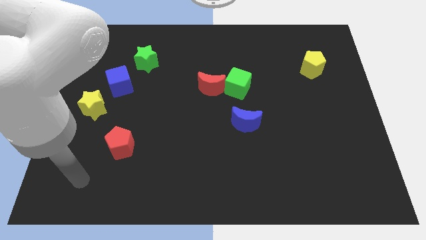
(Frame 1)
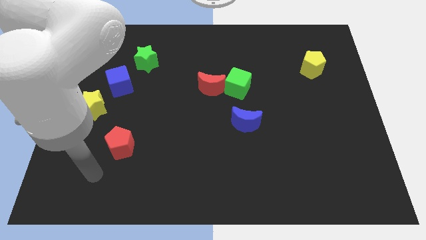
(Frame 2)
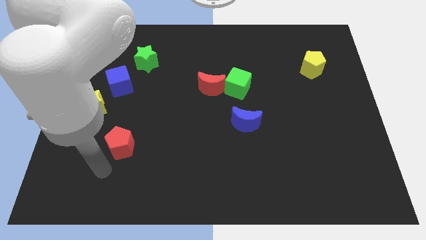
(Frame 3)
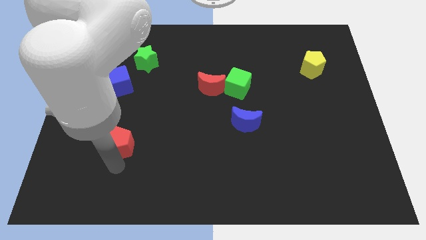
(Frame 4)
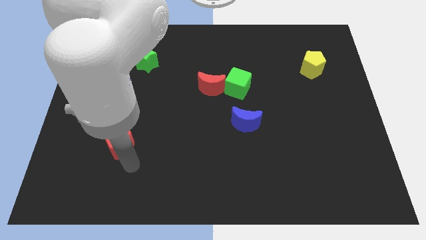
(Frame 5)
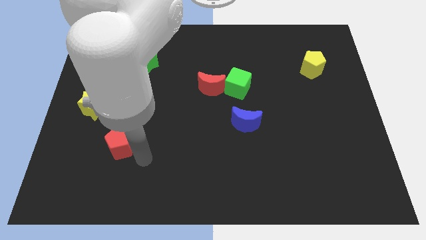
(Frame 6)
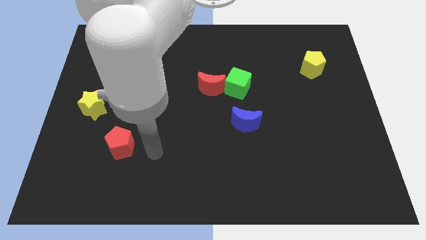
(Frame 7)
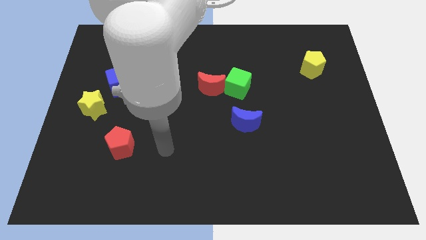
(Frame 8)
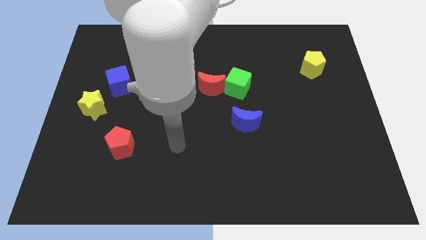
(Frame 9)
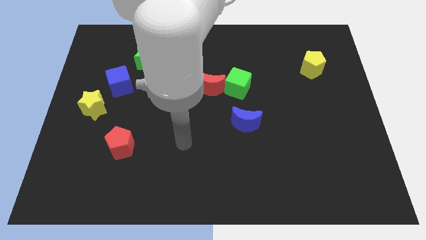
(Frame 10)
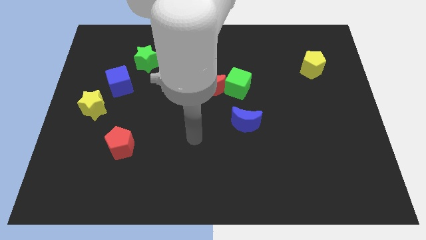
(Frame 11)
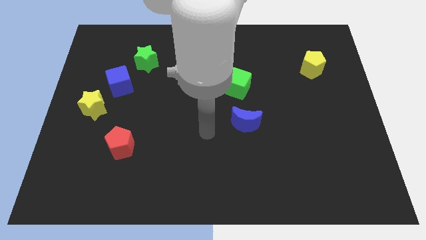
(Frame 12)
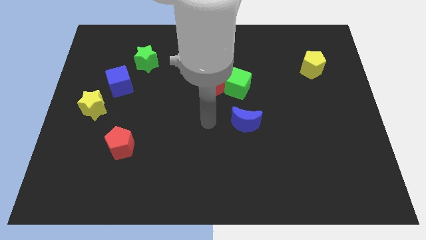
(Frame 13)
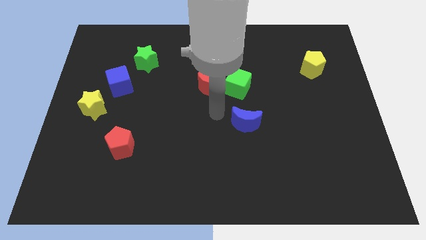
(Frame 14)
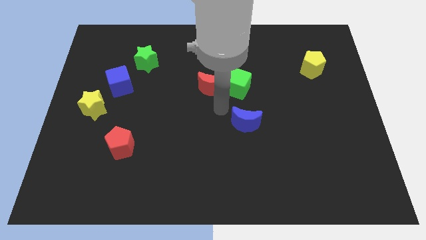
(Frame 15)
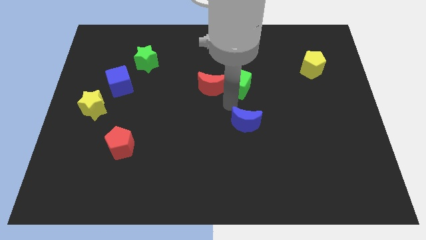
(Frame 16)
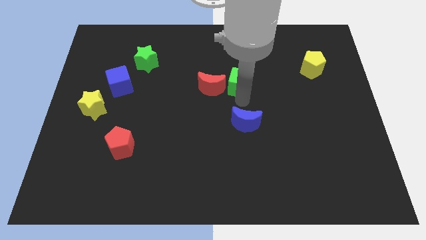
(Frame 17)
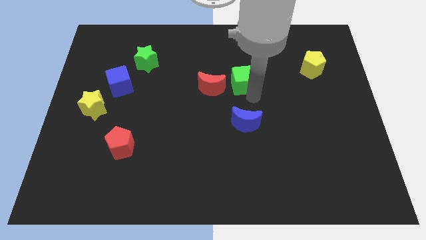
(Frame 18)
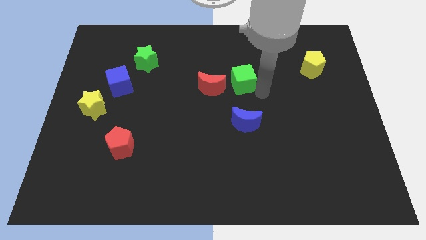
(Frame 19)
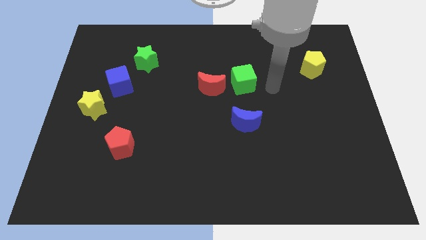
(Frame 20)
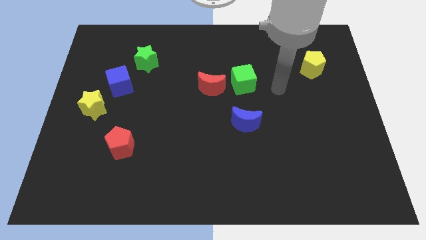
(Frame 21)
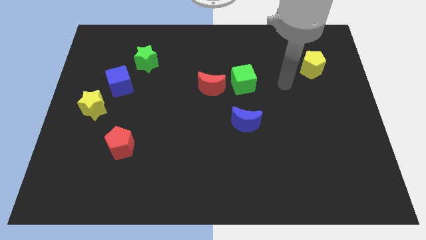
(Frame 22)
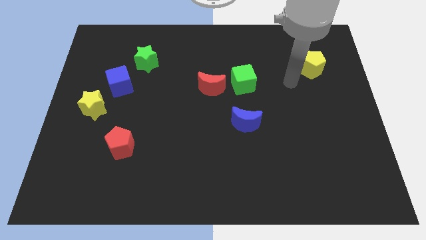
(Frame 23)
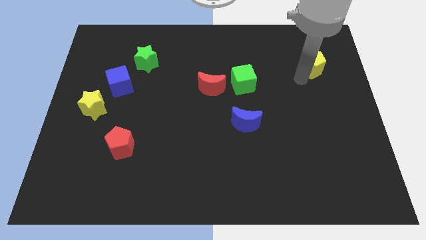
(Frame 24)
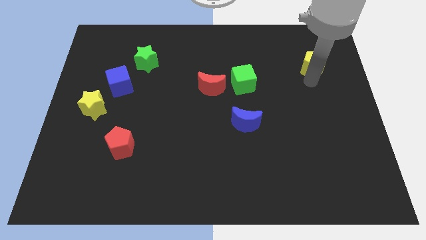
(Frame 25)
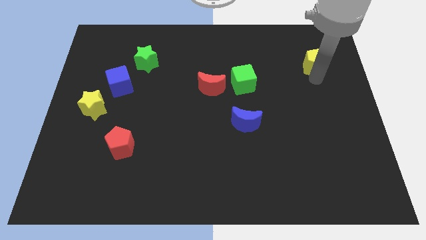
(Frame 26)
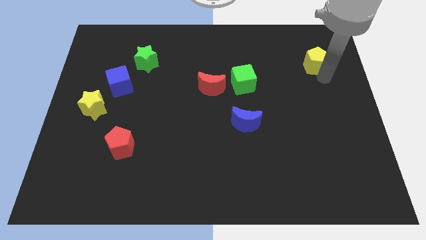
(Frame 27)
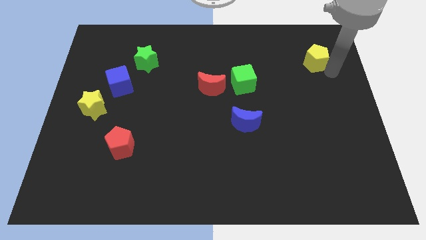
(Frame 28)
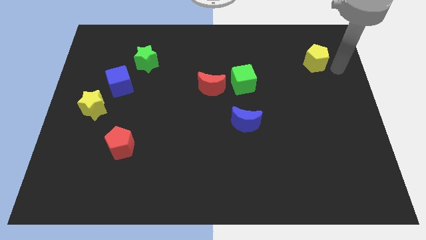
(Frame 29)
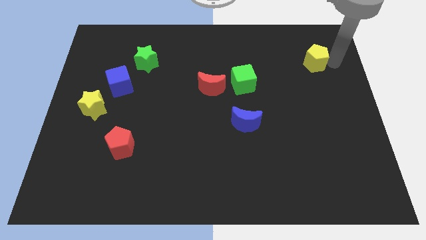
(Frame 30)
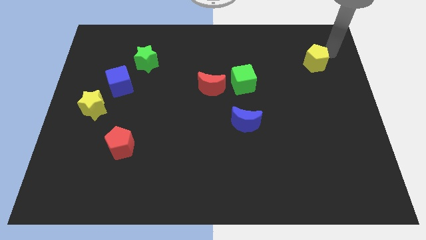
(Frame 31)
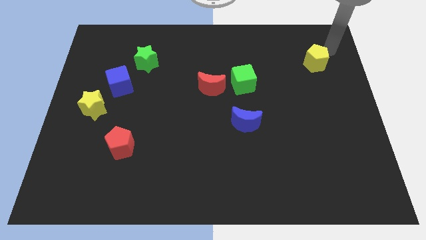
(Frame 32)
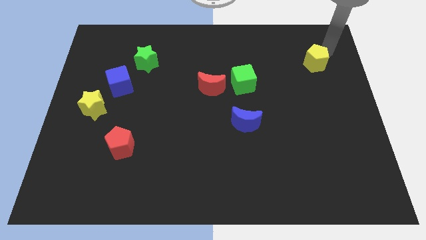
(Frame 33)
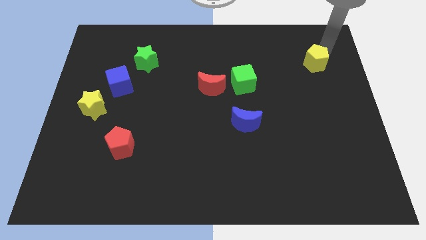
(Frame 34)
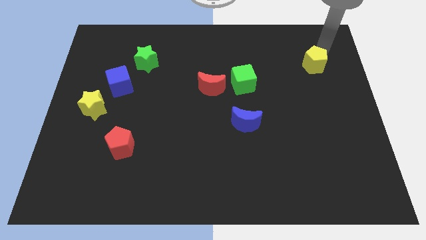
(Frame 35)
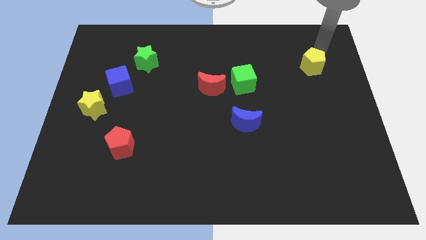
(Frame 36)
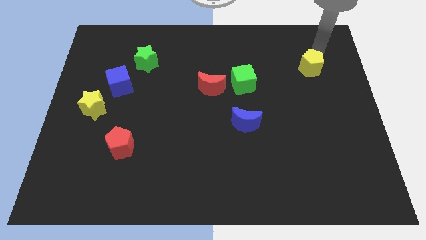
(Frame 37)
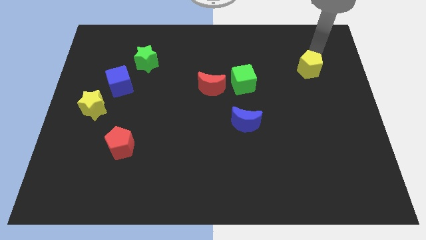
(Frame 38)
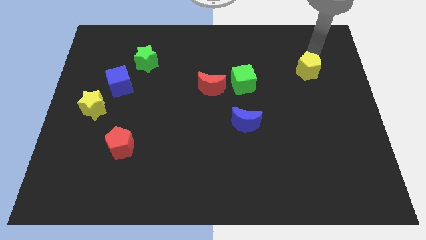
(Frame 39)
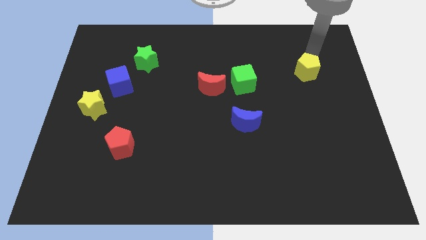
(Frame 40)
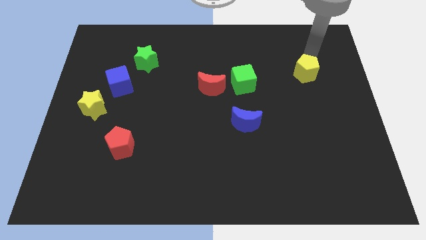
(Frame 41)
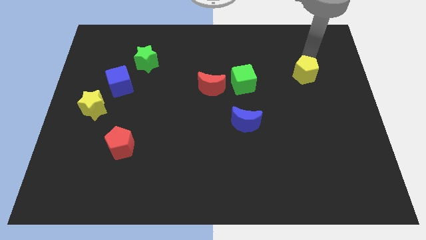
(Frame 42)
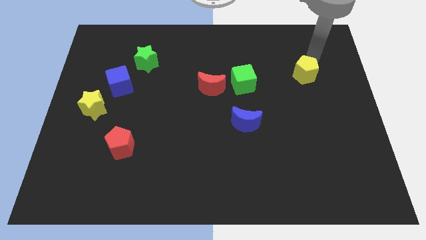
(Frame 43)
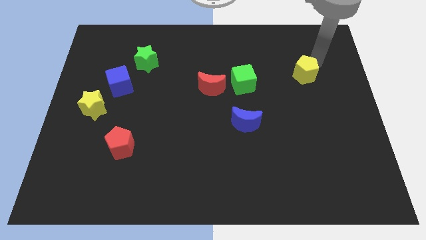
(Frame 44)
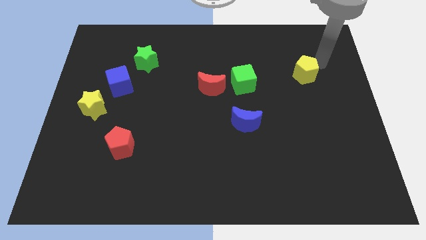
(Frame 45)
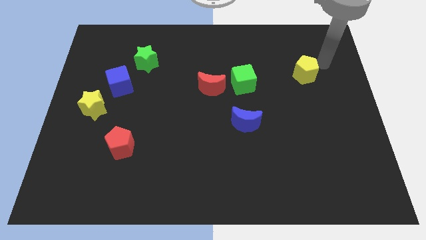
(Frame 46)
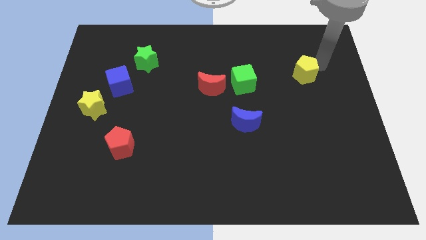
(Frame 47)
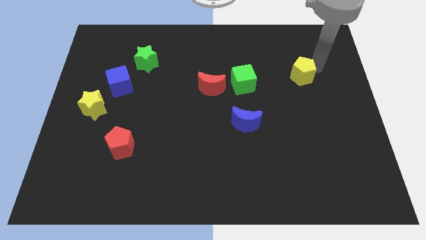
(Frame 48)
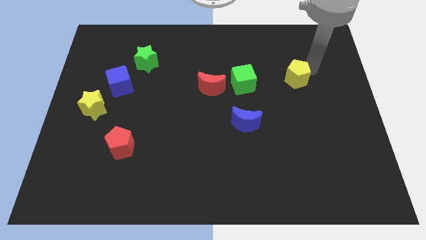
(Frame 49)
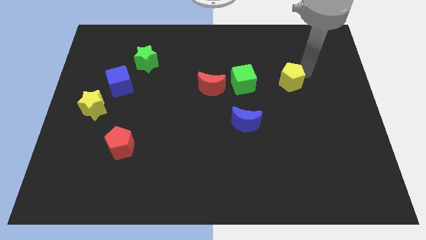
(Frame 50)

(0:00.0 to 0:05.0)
slide the yellow pentagon somewhat down and left

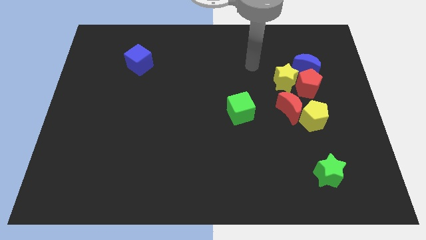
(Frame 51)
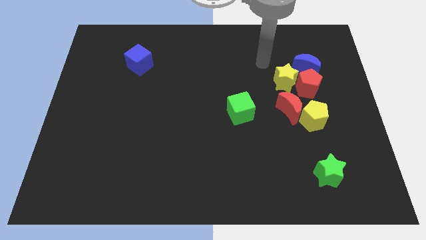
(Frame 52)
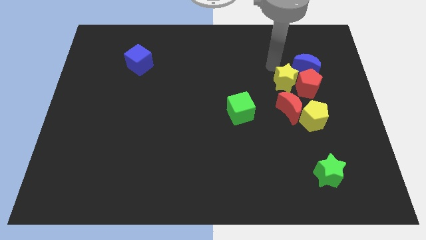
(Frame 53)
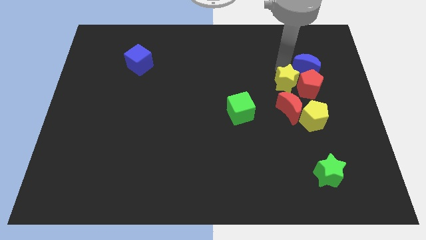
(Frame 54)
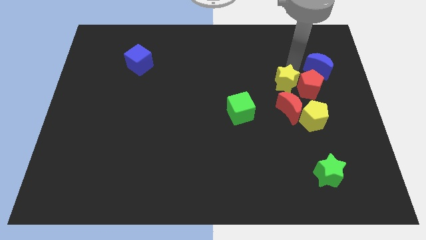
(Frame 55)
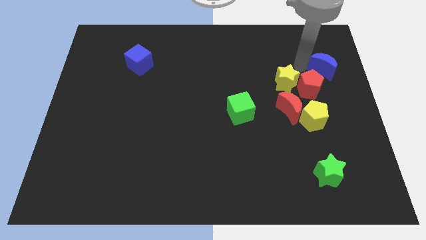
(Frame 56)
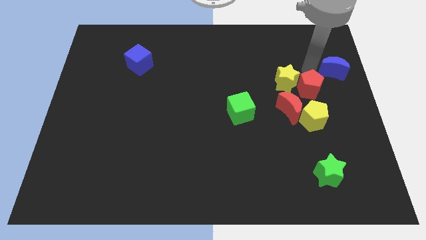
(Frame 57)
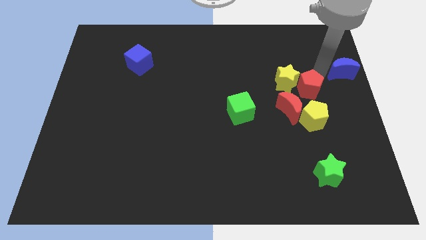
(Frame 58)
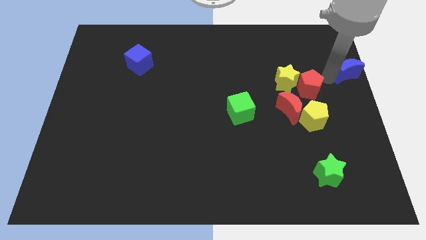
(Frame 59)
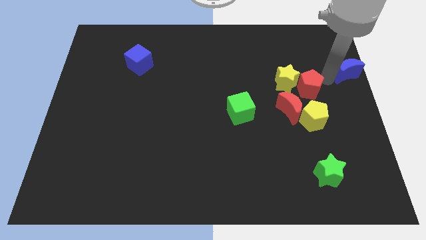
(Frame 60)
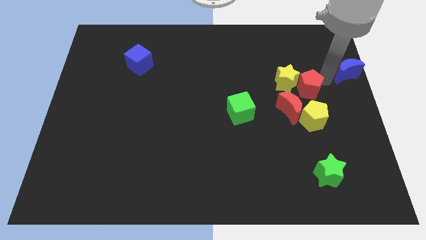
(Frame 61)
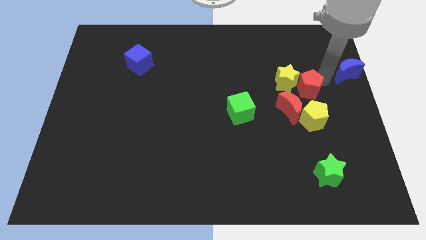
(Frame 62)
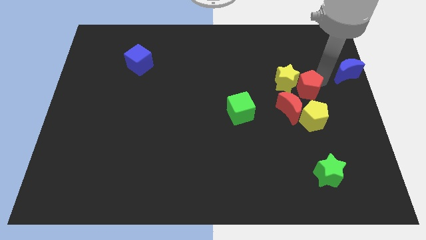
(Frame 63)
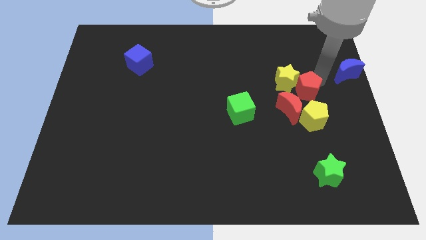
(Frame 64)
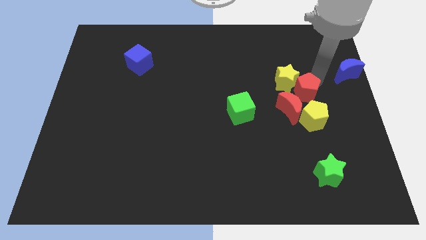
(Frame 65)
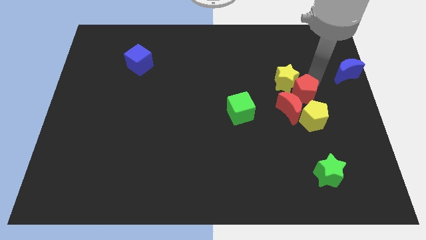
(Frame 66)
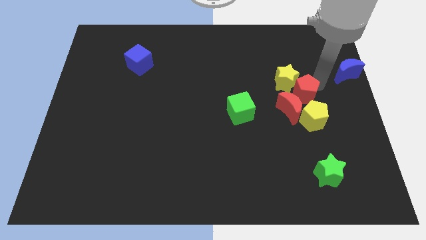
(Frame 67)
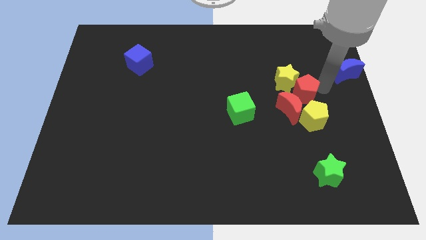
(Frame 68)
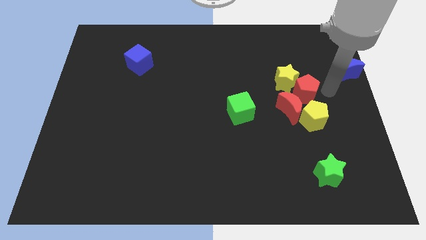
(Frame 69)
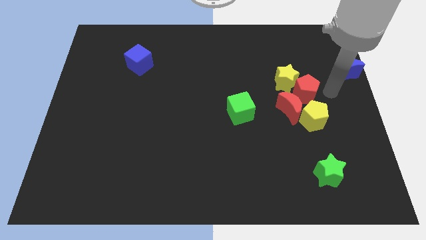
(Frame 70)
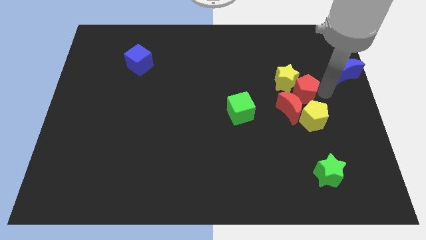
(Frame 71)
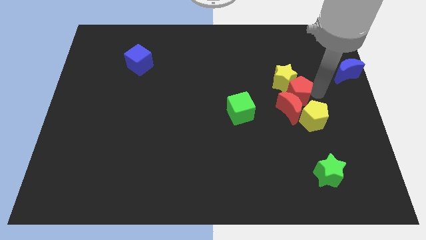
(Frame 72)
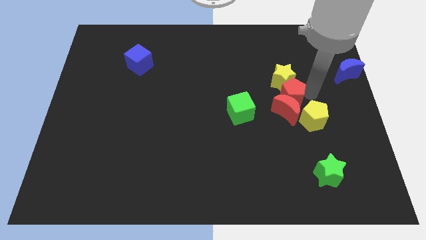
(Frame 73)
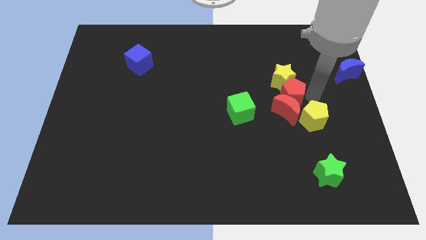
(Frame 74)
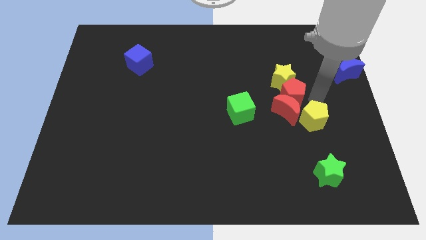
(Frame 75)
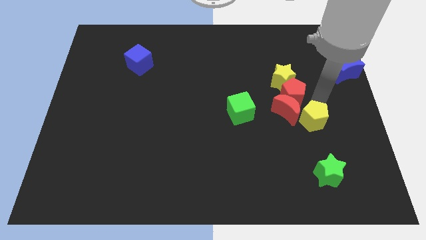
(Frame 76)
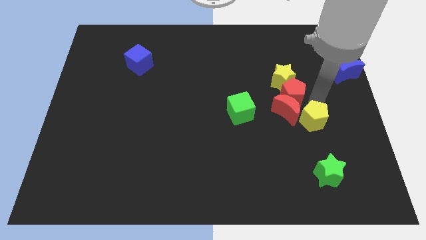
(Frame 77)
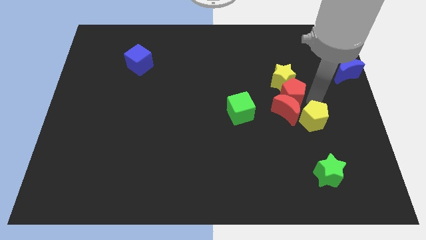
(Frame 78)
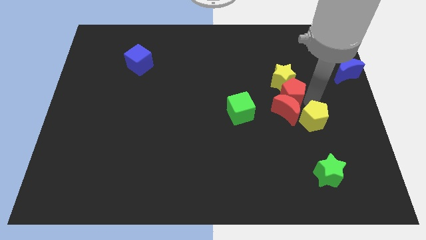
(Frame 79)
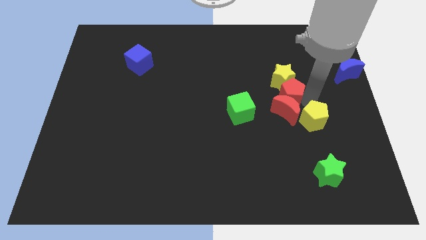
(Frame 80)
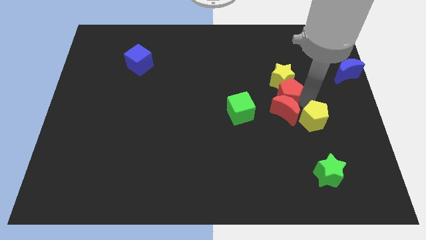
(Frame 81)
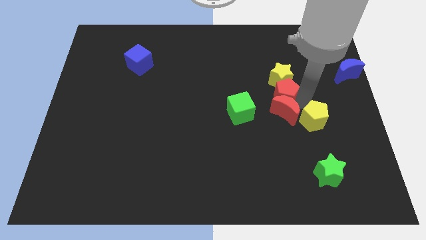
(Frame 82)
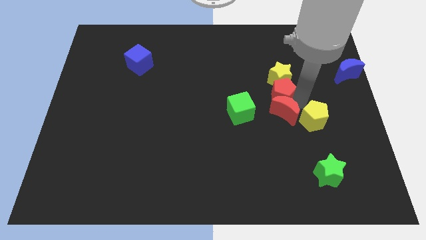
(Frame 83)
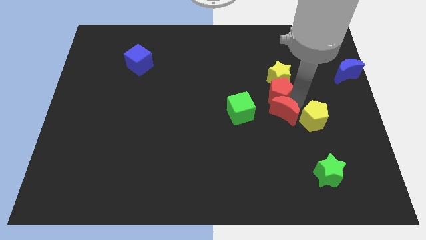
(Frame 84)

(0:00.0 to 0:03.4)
push the red pentagon to the left somewhat
